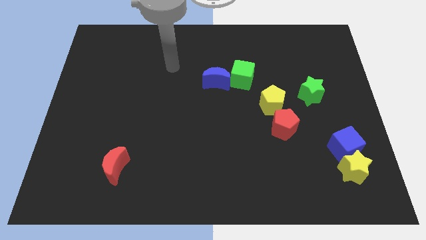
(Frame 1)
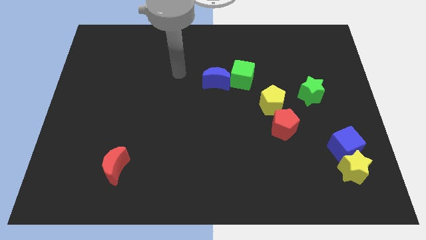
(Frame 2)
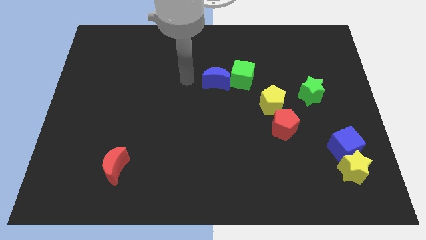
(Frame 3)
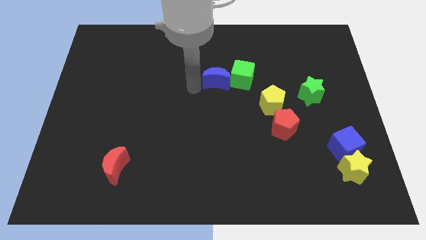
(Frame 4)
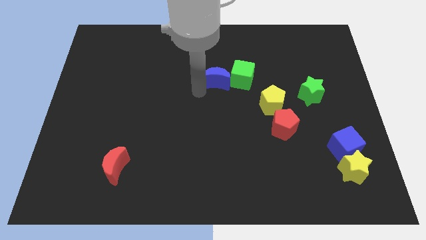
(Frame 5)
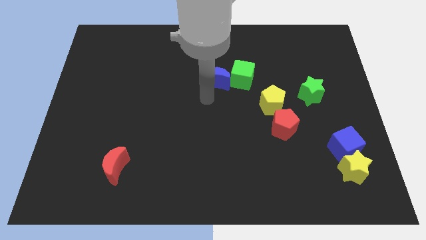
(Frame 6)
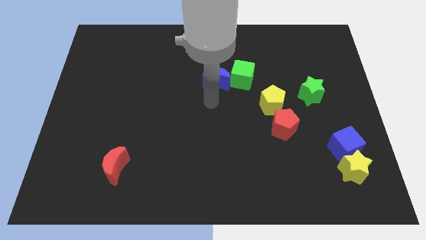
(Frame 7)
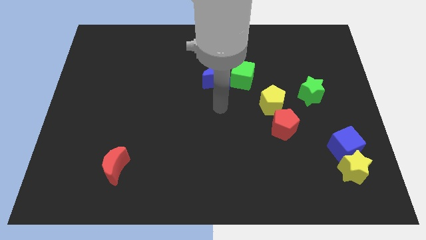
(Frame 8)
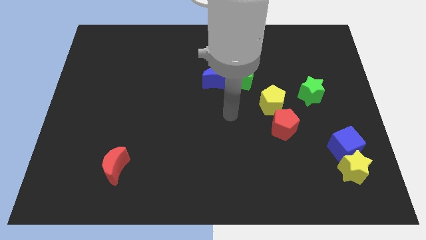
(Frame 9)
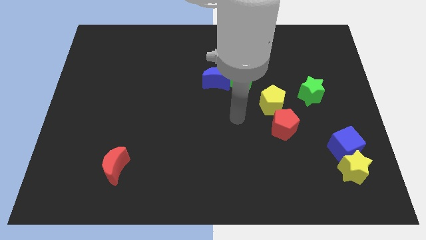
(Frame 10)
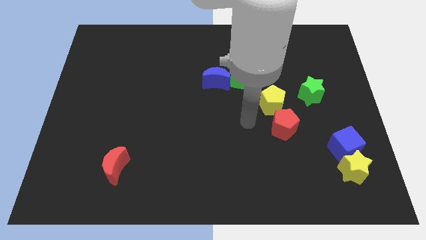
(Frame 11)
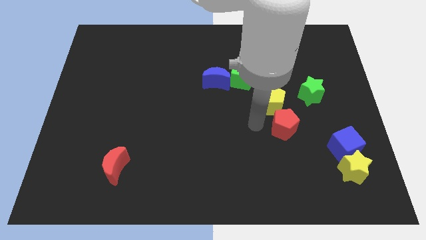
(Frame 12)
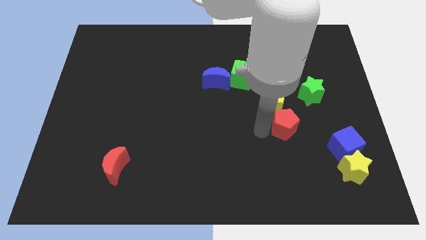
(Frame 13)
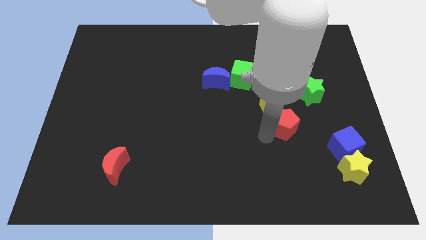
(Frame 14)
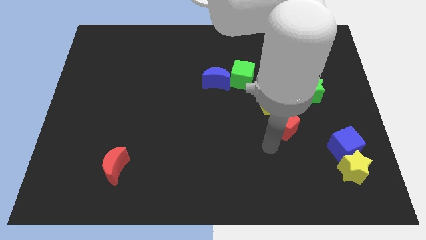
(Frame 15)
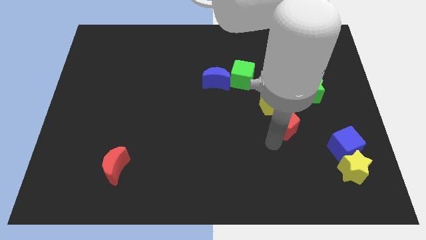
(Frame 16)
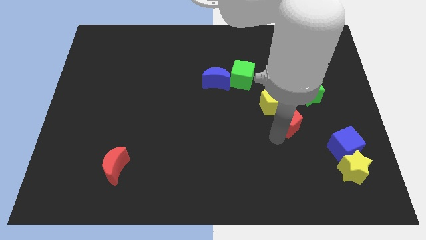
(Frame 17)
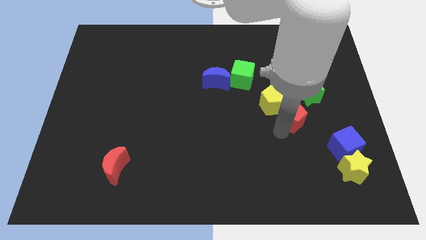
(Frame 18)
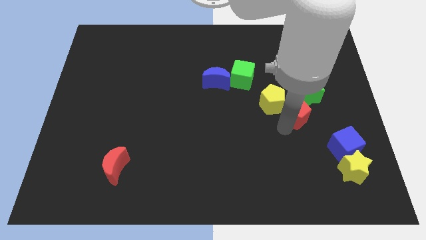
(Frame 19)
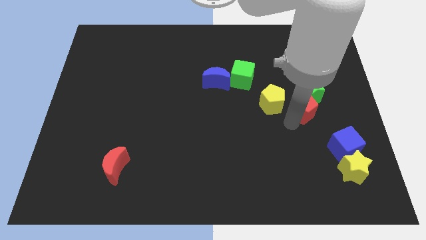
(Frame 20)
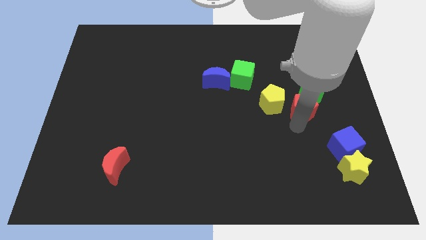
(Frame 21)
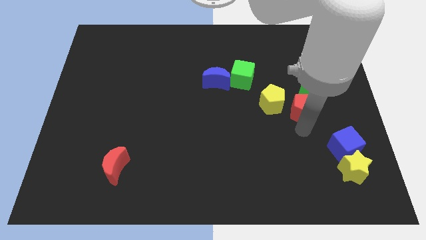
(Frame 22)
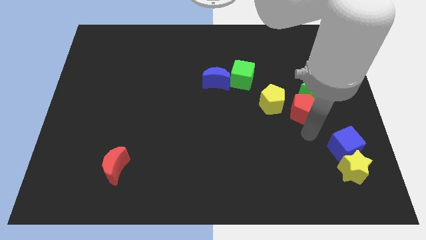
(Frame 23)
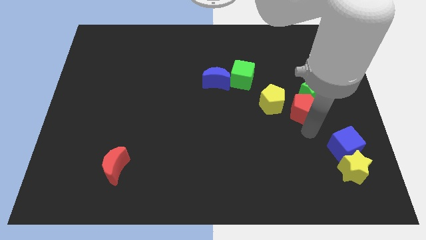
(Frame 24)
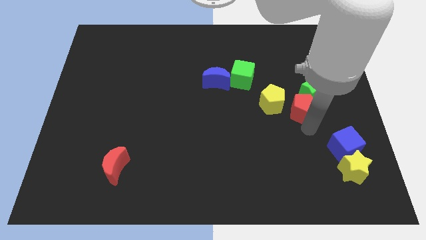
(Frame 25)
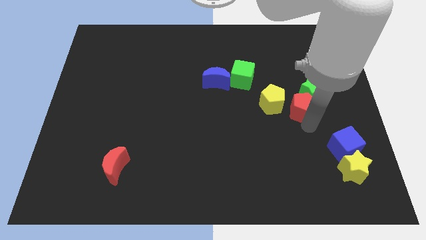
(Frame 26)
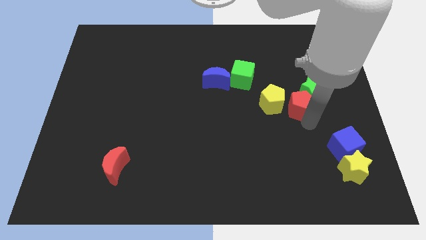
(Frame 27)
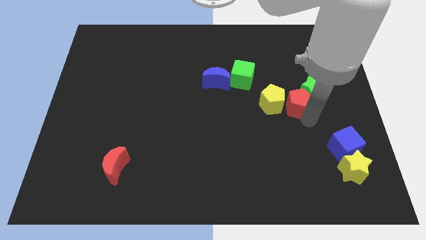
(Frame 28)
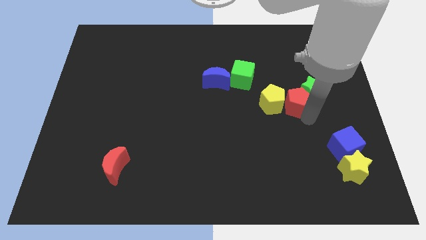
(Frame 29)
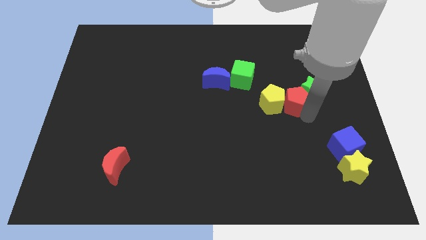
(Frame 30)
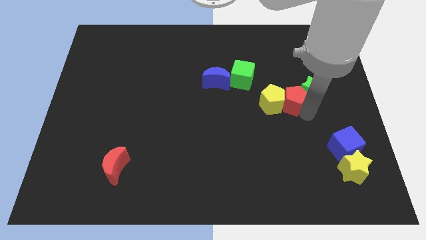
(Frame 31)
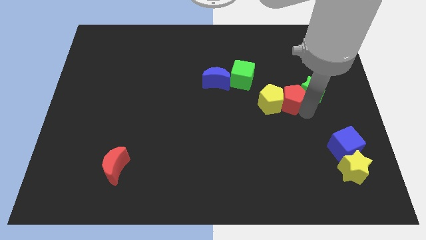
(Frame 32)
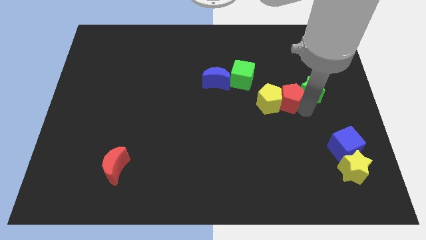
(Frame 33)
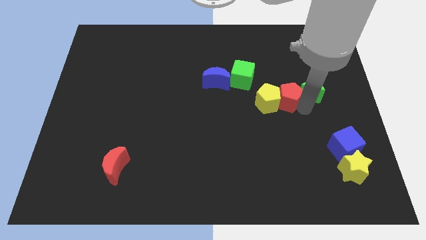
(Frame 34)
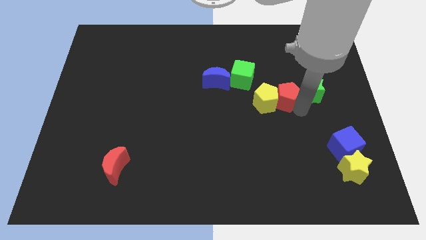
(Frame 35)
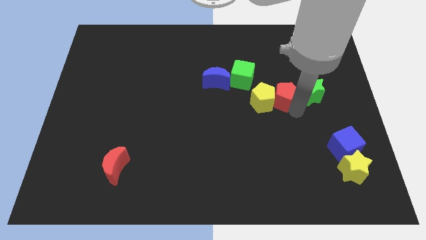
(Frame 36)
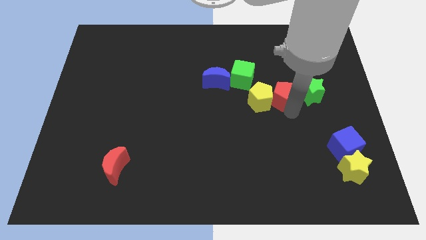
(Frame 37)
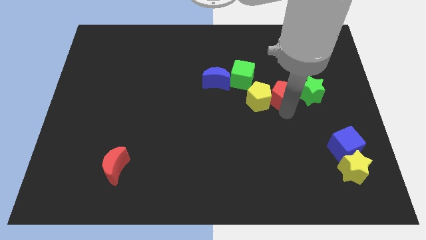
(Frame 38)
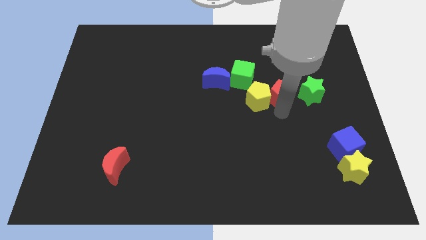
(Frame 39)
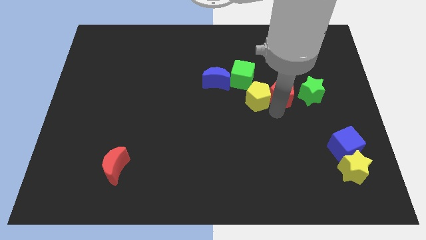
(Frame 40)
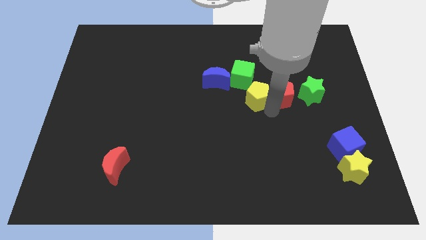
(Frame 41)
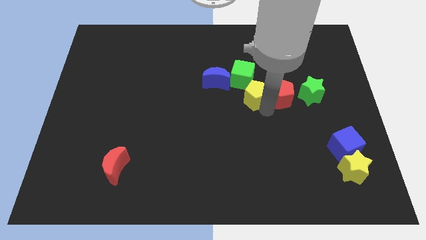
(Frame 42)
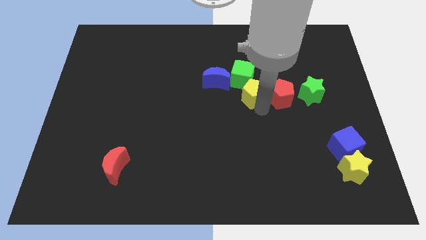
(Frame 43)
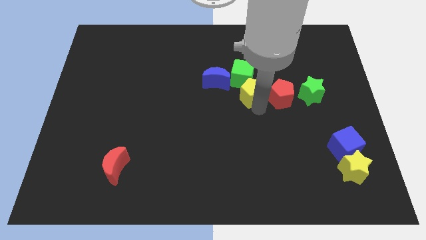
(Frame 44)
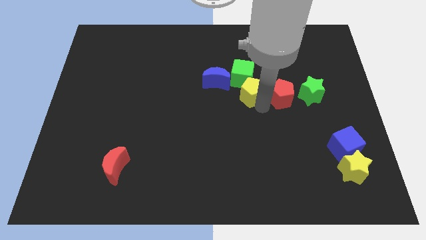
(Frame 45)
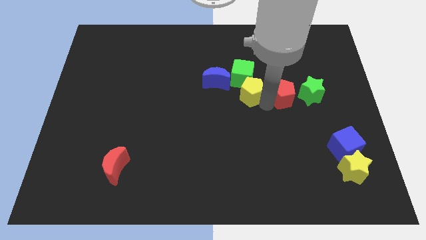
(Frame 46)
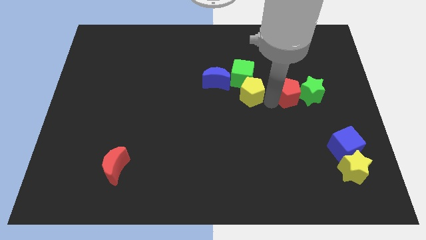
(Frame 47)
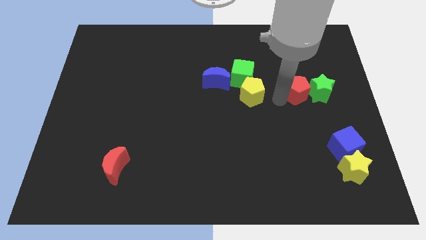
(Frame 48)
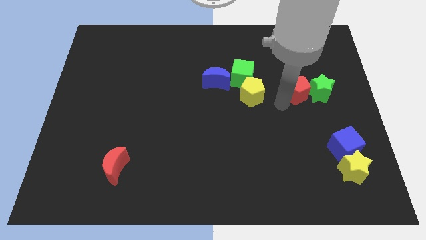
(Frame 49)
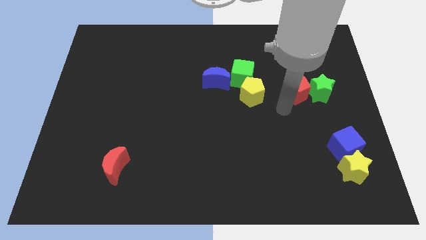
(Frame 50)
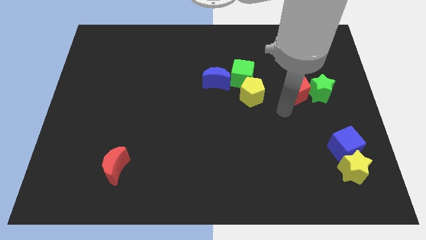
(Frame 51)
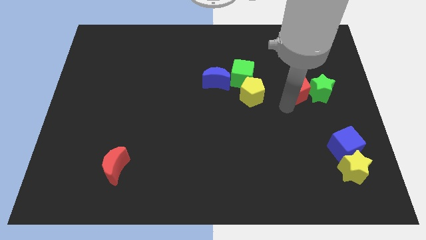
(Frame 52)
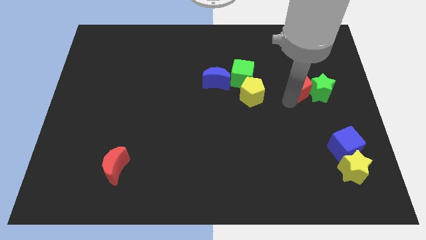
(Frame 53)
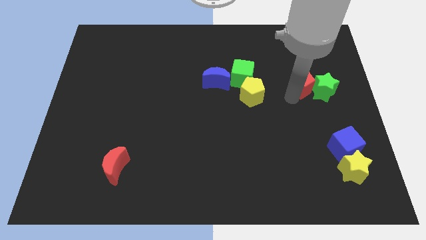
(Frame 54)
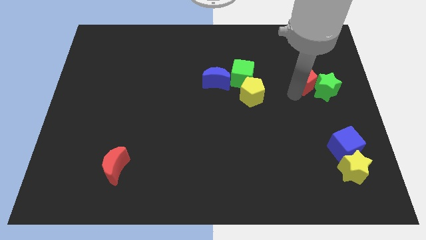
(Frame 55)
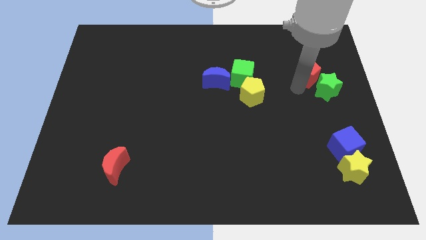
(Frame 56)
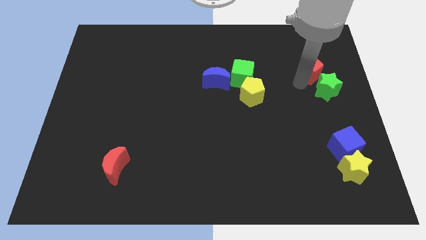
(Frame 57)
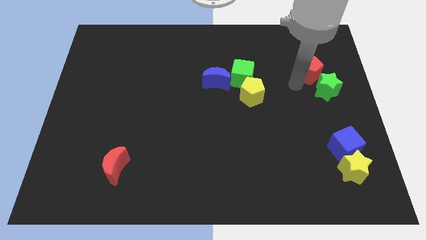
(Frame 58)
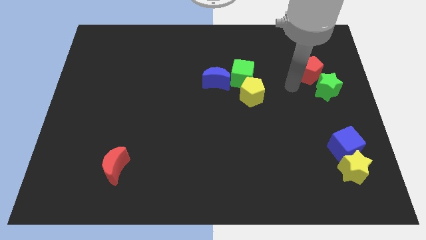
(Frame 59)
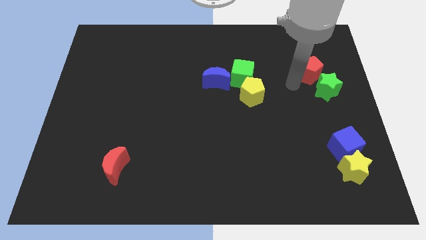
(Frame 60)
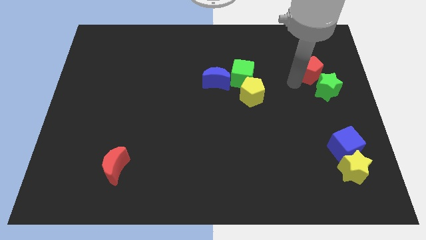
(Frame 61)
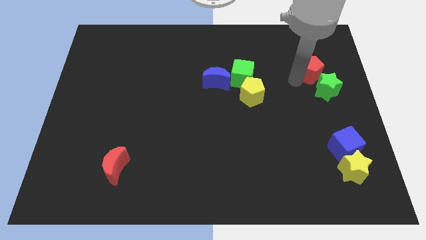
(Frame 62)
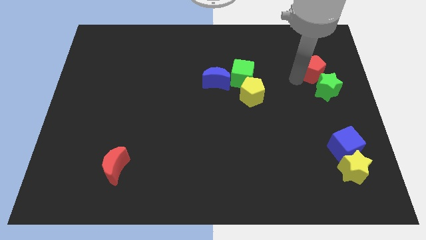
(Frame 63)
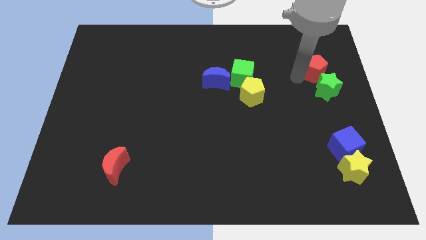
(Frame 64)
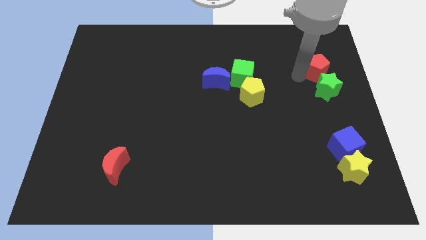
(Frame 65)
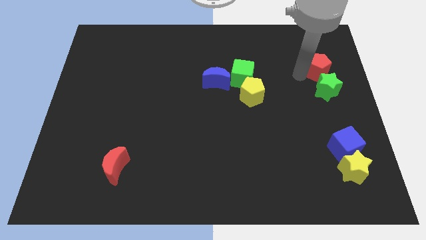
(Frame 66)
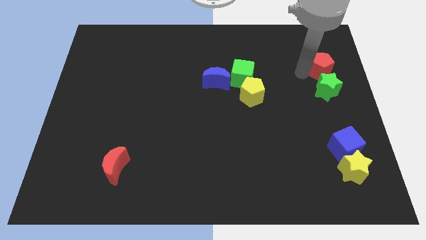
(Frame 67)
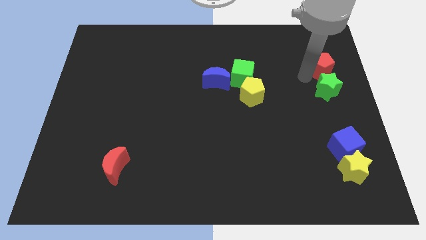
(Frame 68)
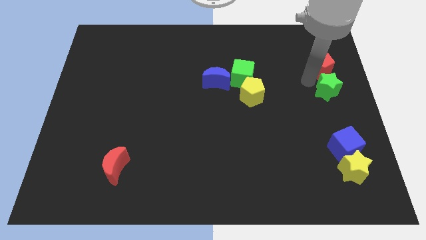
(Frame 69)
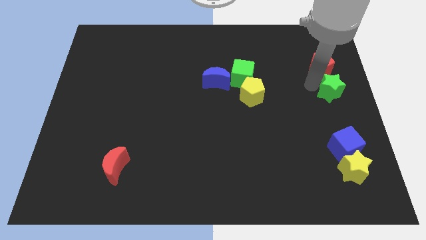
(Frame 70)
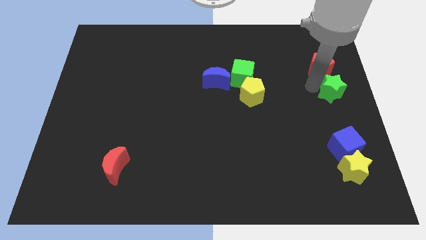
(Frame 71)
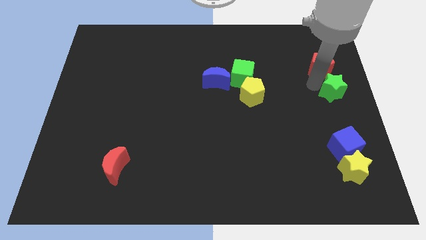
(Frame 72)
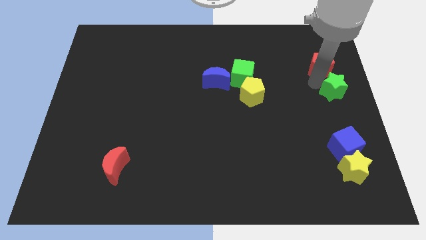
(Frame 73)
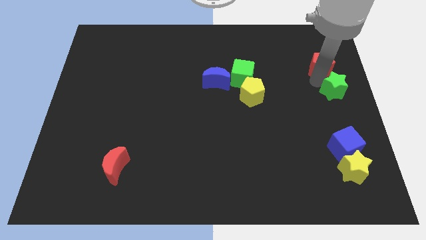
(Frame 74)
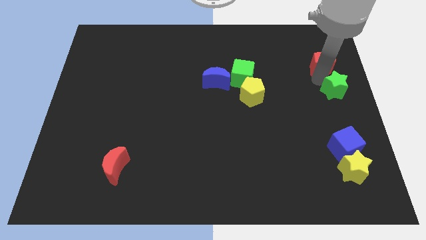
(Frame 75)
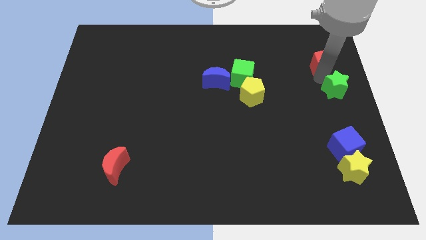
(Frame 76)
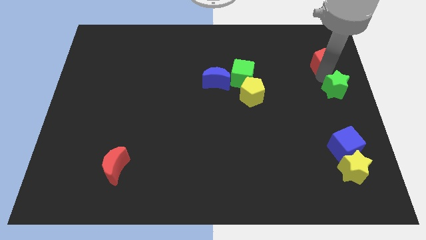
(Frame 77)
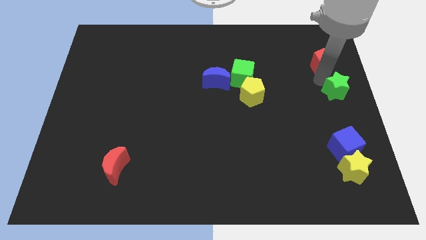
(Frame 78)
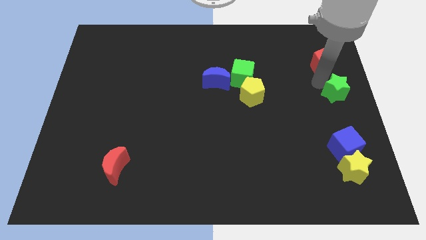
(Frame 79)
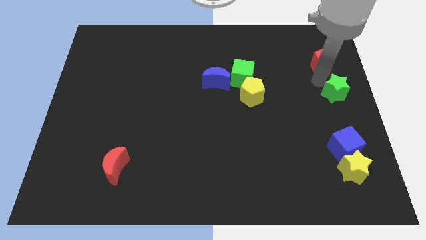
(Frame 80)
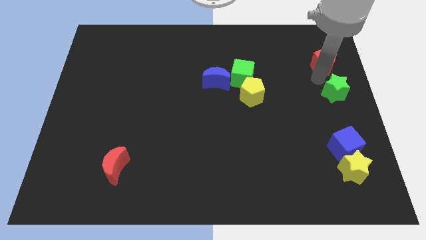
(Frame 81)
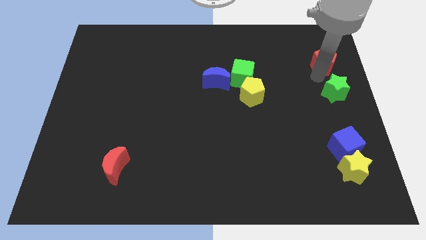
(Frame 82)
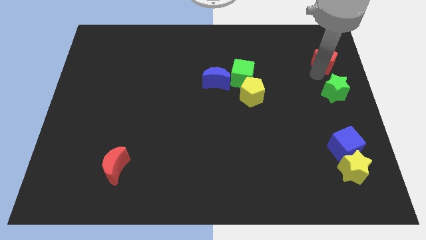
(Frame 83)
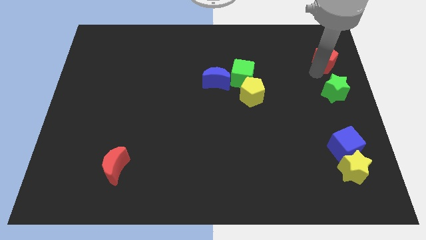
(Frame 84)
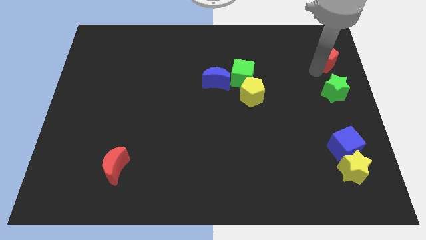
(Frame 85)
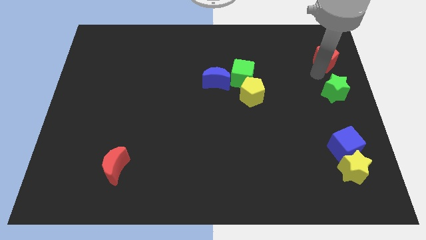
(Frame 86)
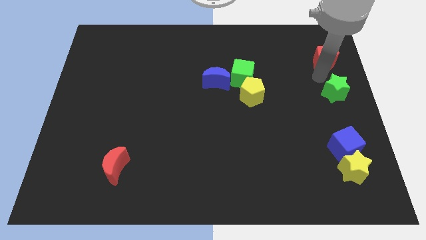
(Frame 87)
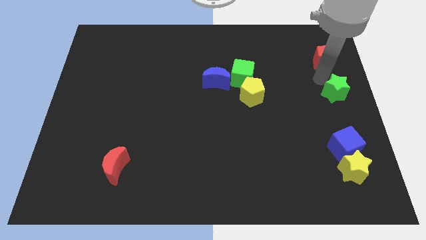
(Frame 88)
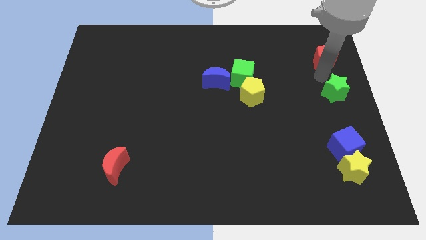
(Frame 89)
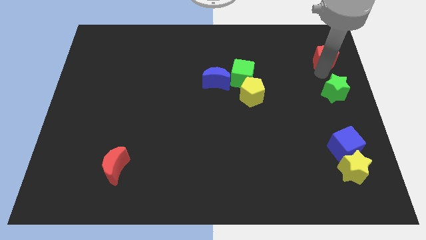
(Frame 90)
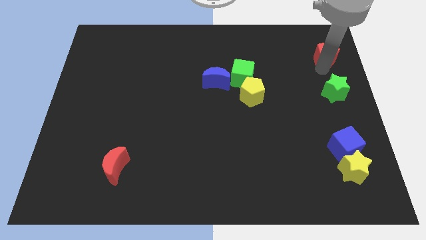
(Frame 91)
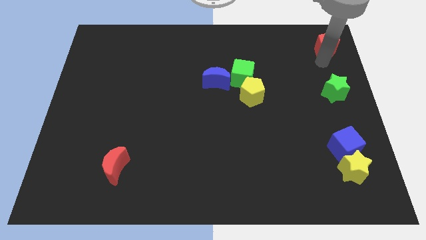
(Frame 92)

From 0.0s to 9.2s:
push the red pentagon to the top right of the board
